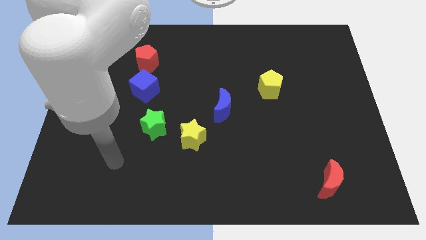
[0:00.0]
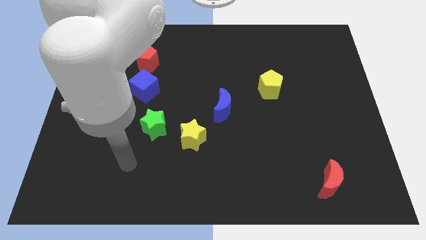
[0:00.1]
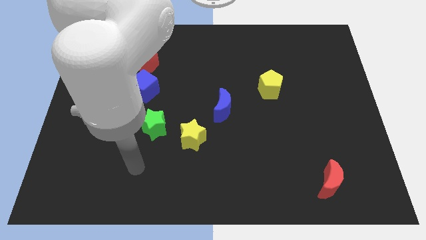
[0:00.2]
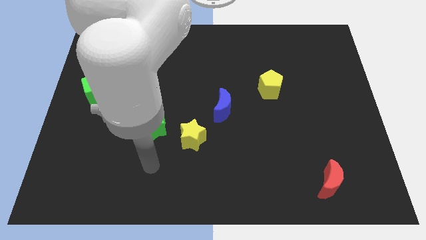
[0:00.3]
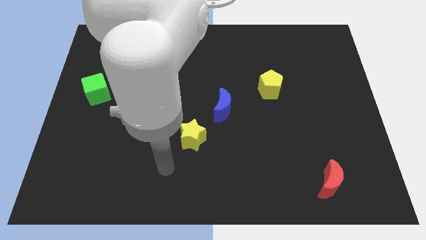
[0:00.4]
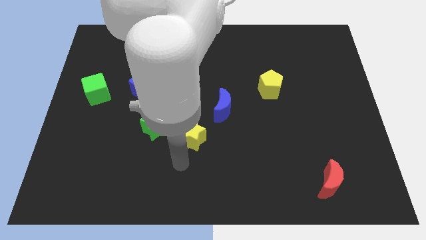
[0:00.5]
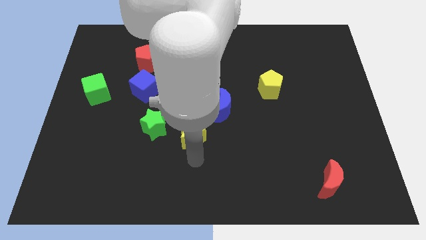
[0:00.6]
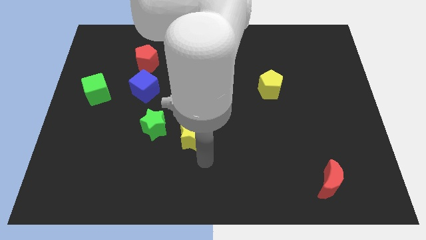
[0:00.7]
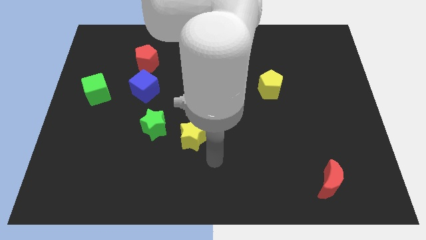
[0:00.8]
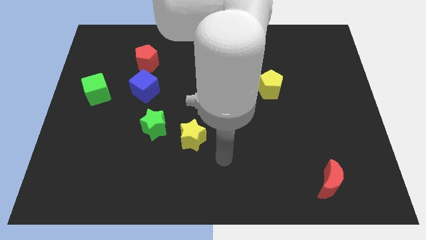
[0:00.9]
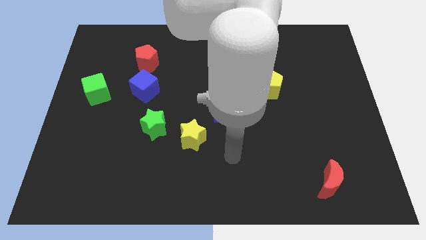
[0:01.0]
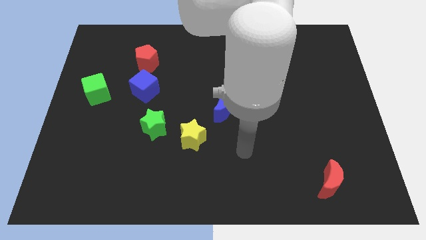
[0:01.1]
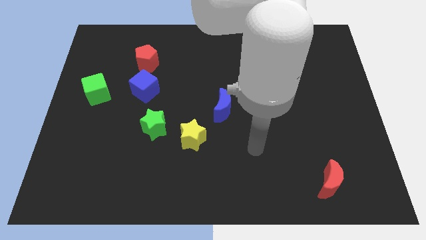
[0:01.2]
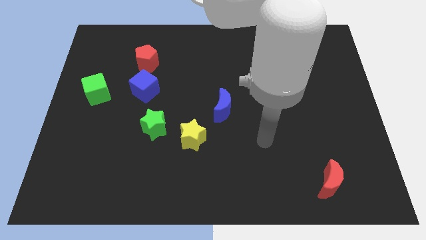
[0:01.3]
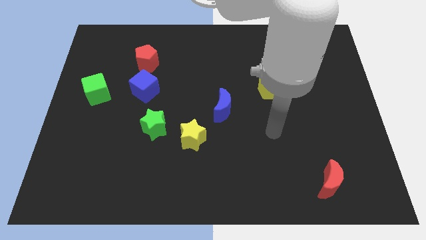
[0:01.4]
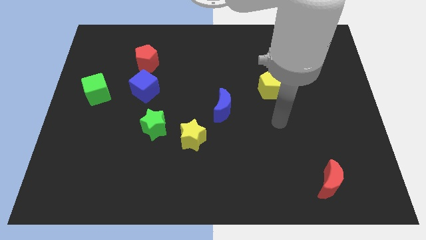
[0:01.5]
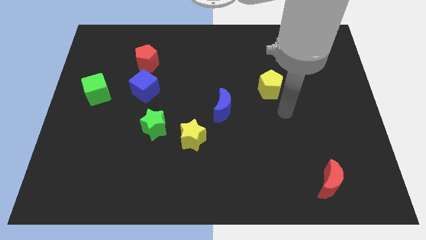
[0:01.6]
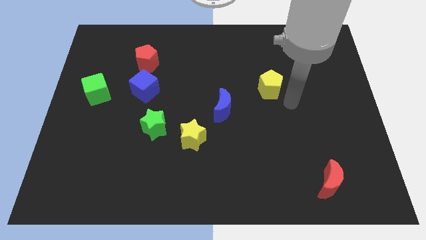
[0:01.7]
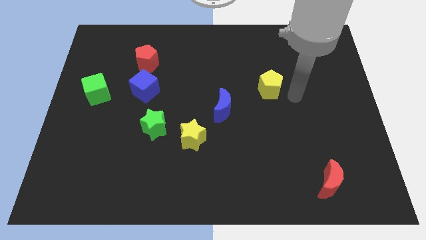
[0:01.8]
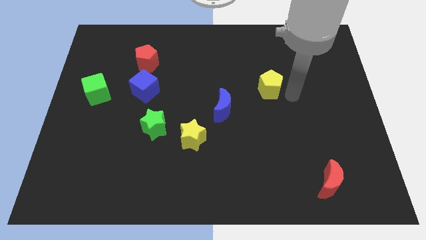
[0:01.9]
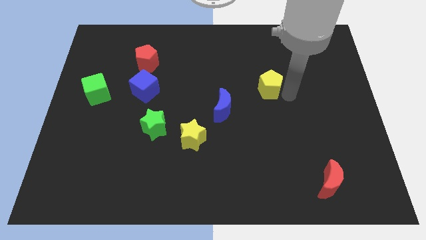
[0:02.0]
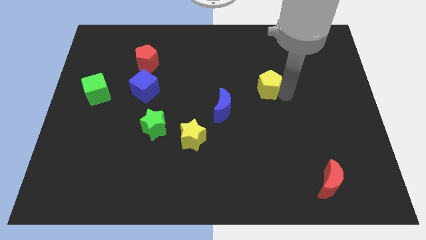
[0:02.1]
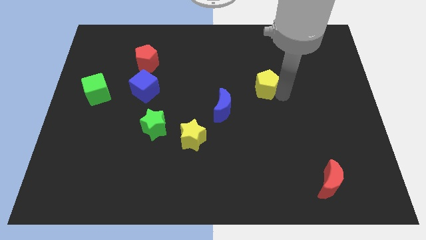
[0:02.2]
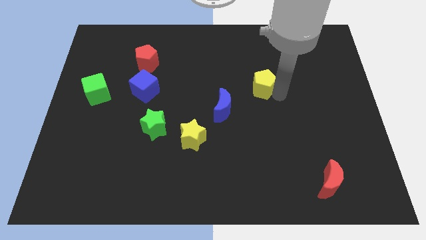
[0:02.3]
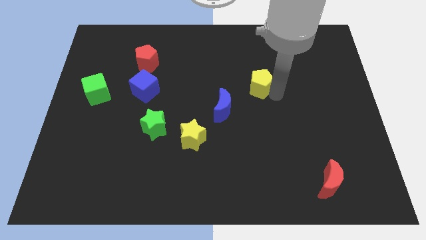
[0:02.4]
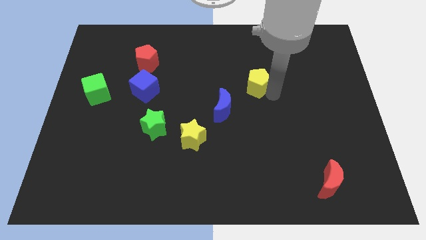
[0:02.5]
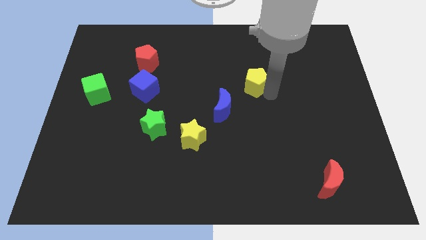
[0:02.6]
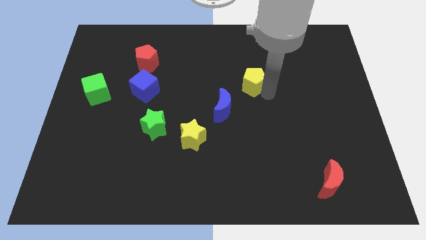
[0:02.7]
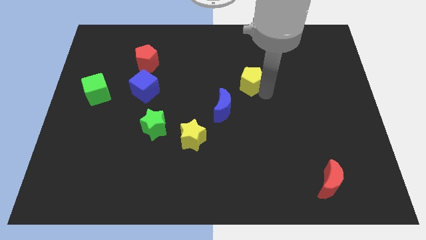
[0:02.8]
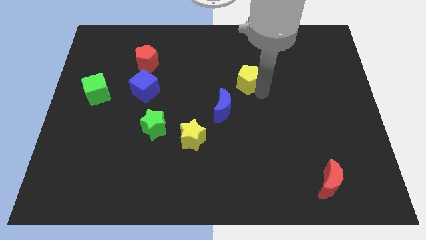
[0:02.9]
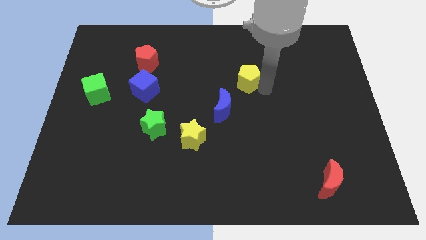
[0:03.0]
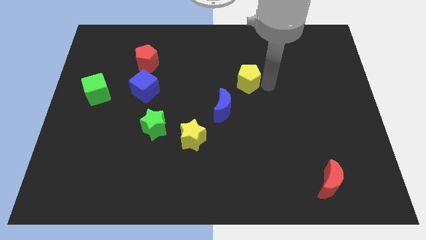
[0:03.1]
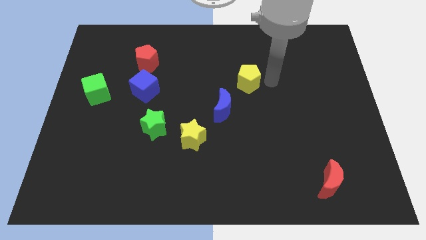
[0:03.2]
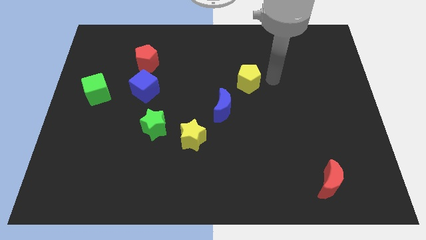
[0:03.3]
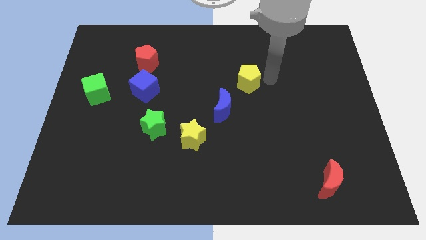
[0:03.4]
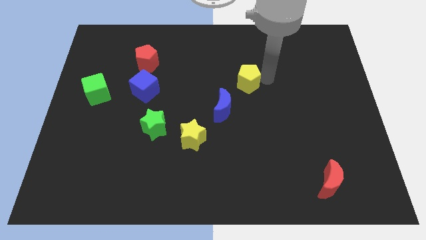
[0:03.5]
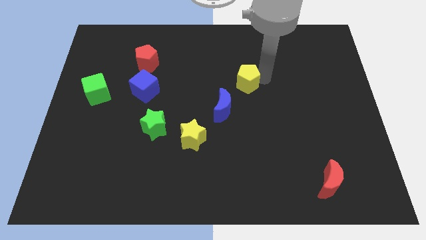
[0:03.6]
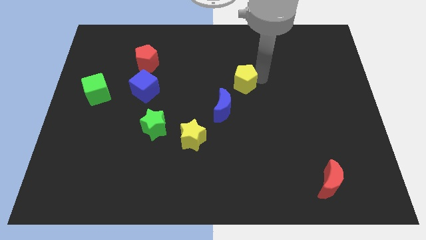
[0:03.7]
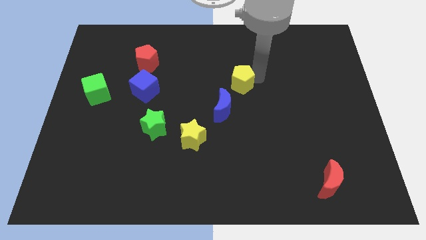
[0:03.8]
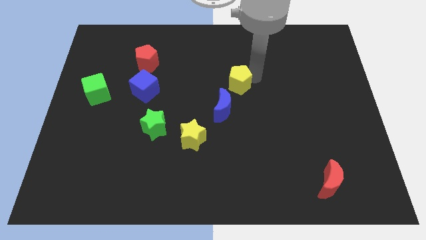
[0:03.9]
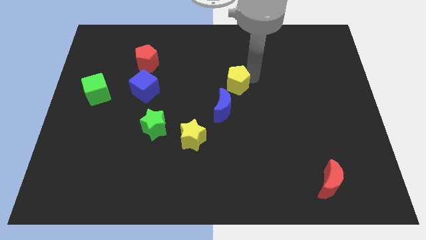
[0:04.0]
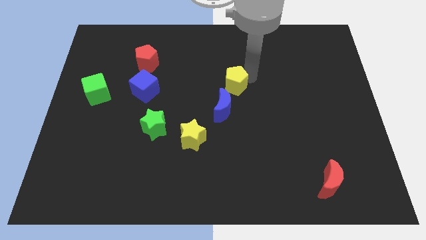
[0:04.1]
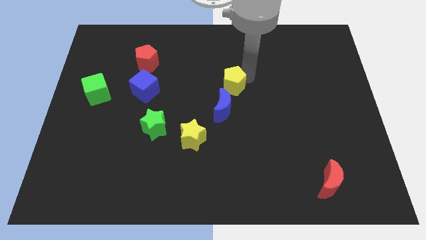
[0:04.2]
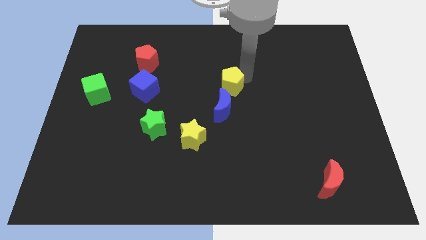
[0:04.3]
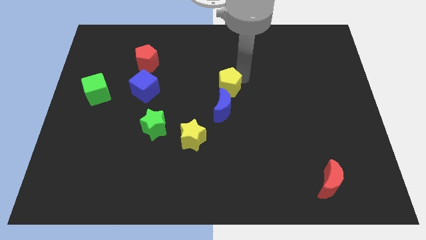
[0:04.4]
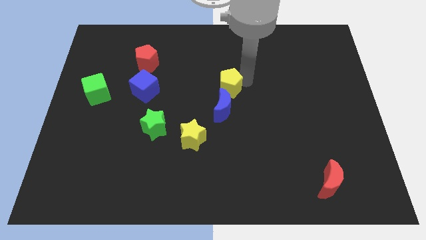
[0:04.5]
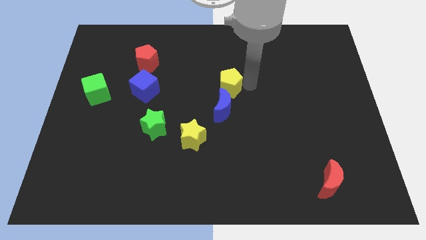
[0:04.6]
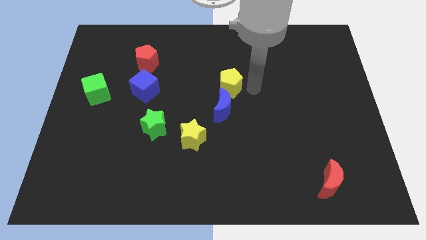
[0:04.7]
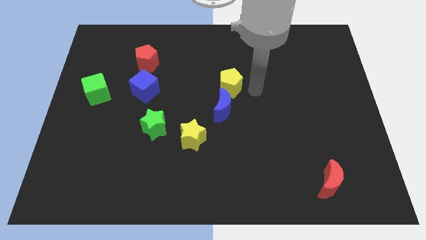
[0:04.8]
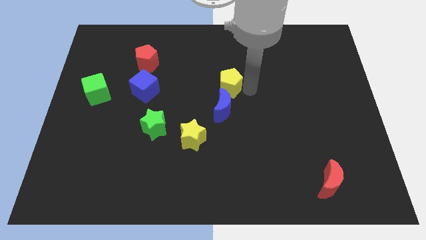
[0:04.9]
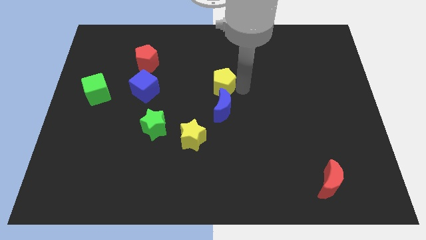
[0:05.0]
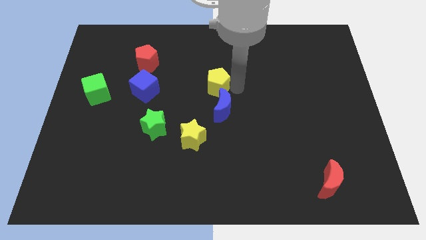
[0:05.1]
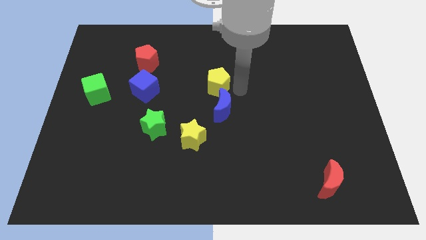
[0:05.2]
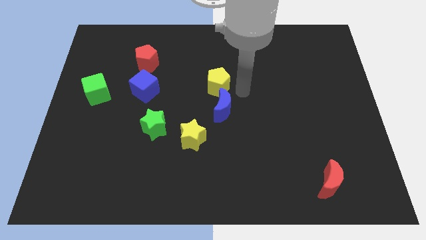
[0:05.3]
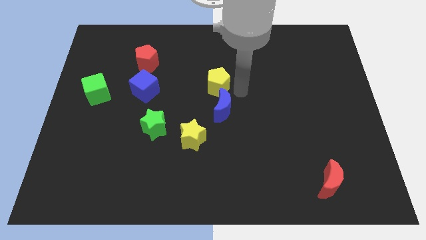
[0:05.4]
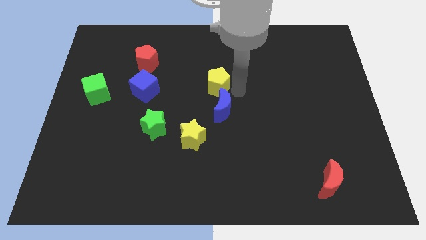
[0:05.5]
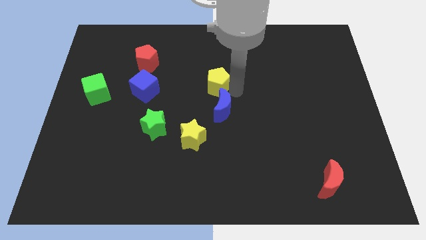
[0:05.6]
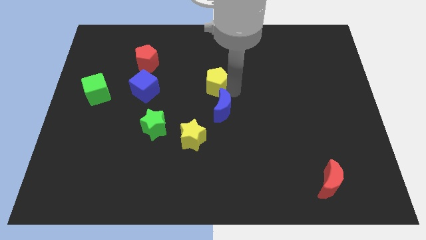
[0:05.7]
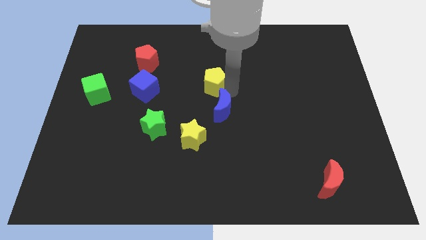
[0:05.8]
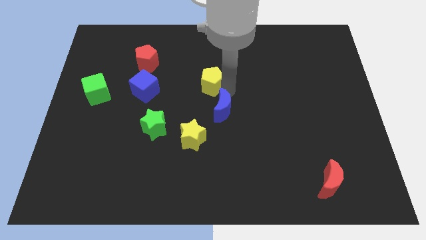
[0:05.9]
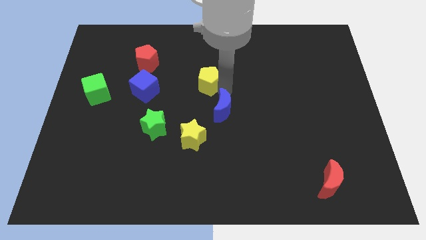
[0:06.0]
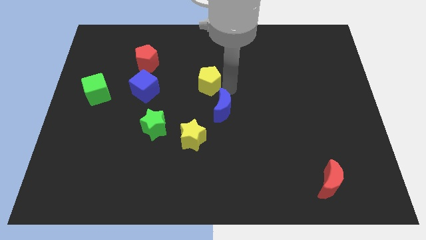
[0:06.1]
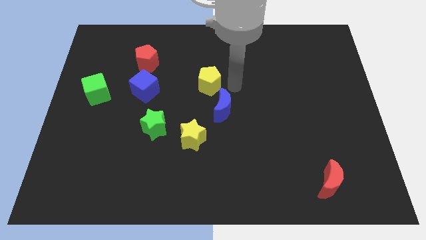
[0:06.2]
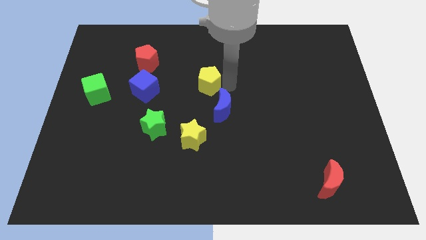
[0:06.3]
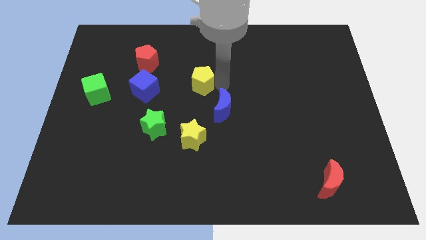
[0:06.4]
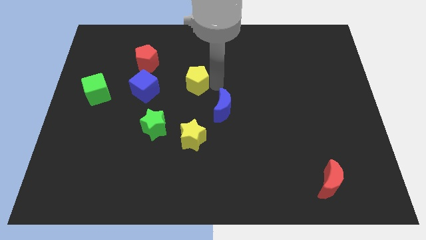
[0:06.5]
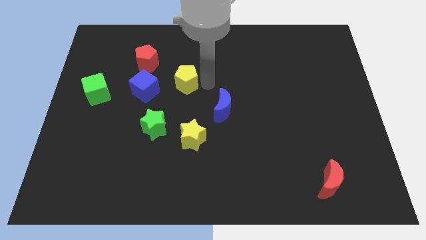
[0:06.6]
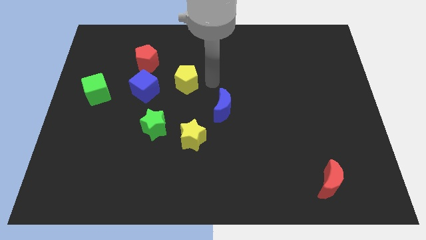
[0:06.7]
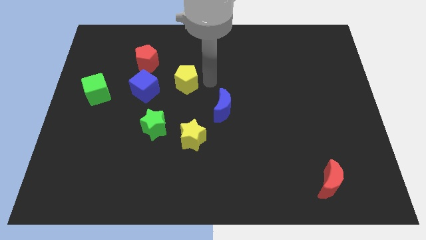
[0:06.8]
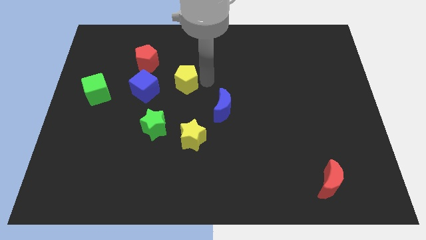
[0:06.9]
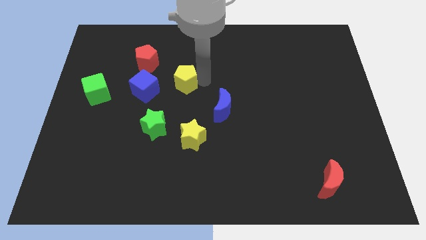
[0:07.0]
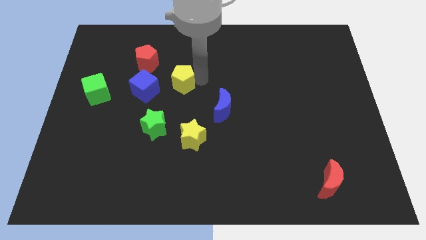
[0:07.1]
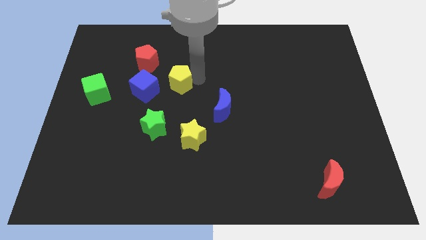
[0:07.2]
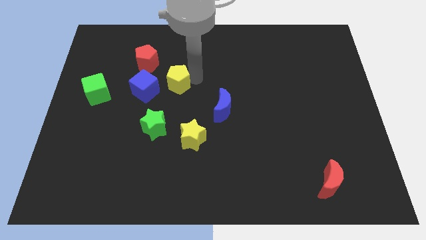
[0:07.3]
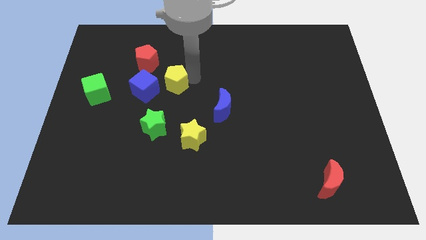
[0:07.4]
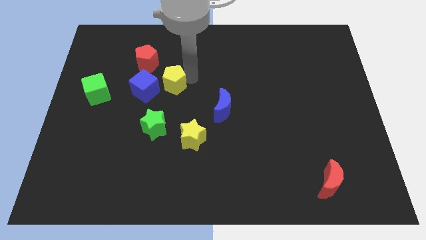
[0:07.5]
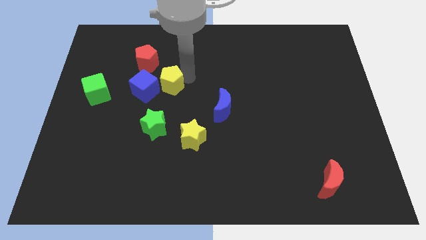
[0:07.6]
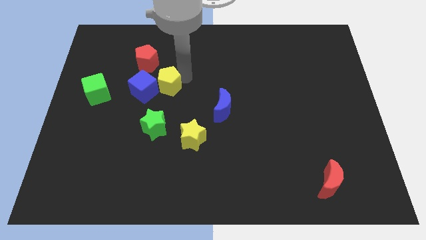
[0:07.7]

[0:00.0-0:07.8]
move the yellow pentagon to the blue cube

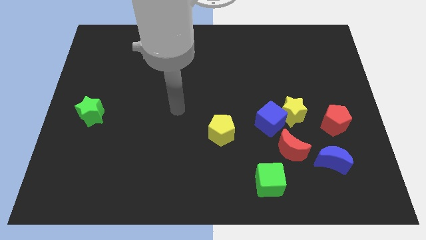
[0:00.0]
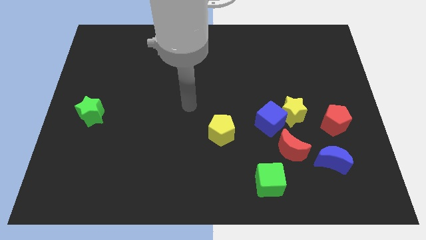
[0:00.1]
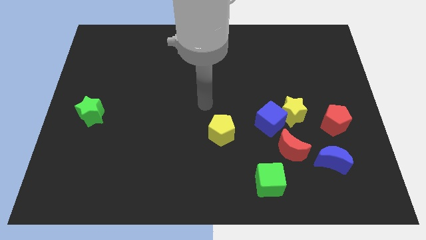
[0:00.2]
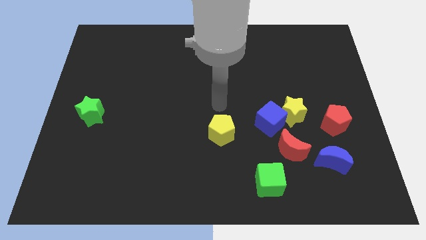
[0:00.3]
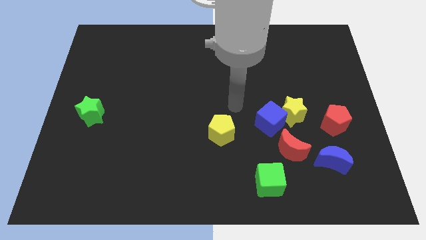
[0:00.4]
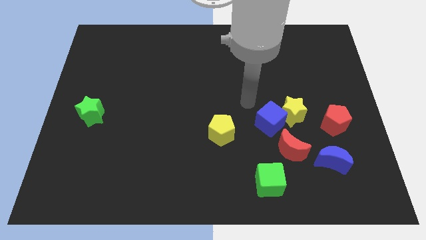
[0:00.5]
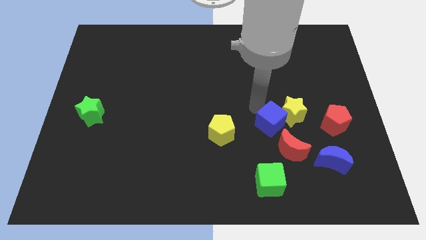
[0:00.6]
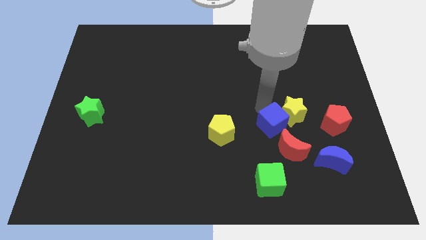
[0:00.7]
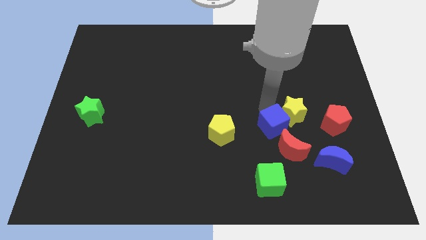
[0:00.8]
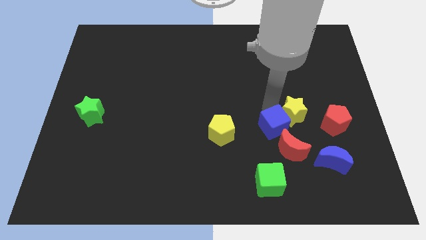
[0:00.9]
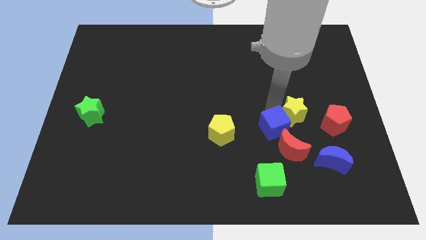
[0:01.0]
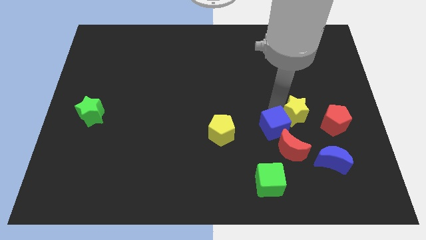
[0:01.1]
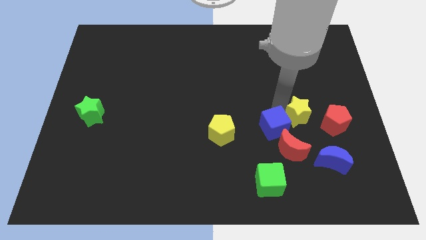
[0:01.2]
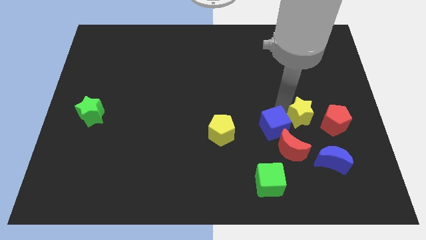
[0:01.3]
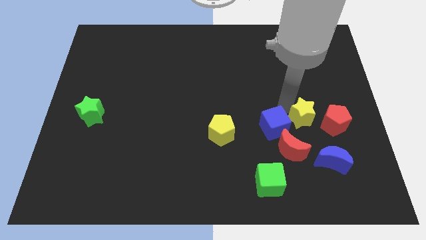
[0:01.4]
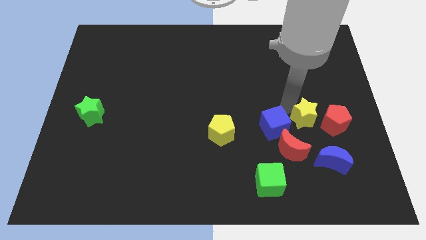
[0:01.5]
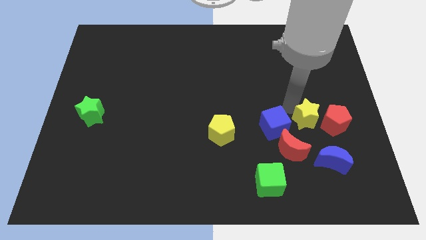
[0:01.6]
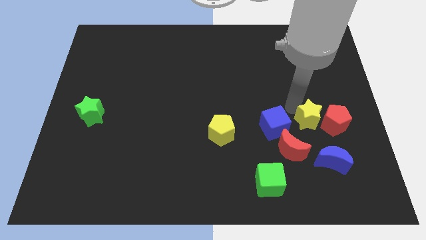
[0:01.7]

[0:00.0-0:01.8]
push the yellow star towards the red pentagon
